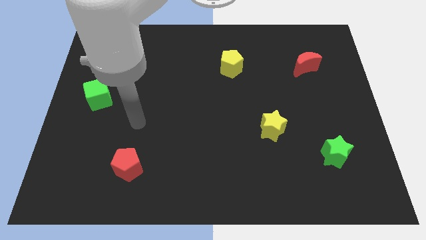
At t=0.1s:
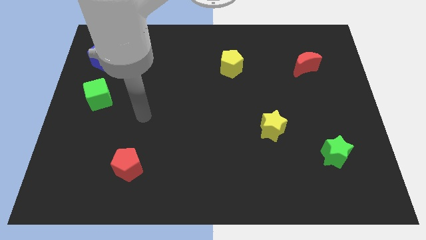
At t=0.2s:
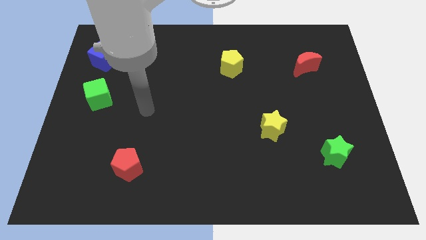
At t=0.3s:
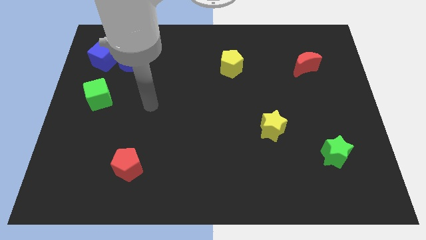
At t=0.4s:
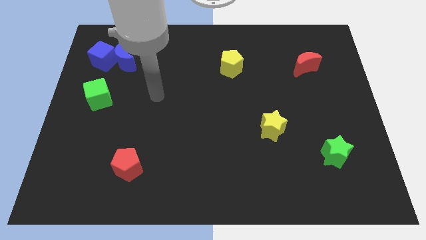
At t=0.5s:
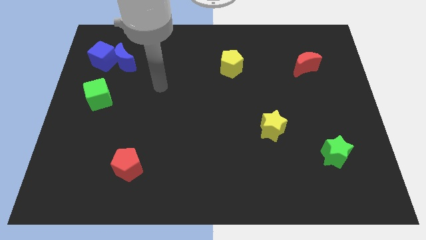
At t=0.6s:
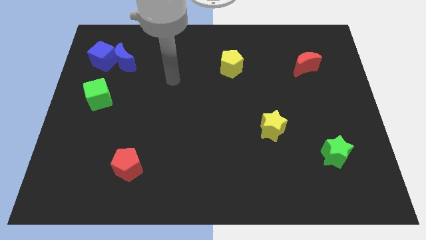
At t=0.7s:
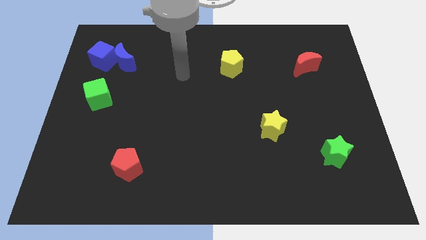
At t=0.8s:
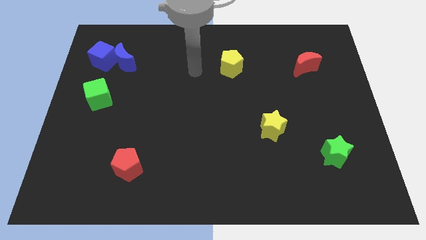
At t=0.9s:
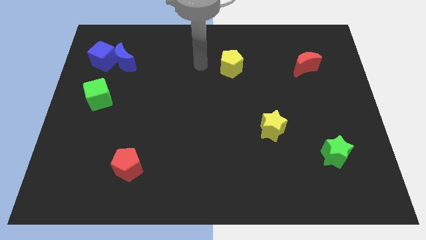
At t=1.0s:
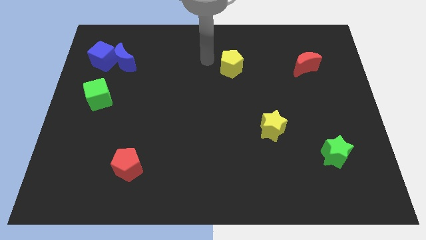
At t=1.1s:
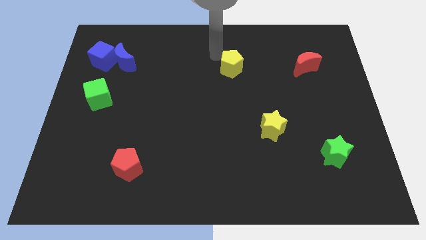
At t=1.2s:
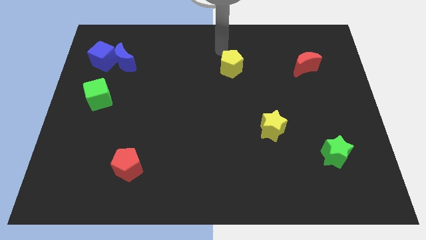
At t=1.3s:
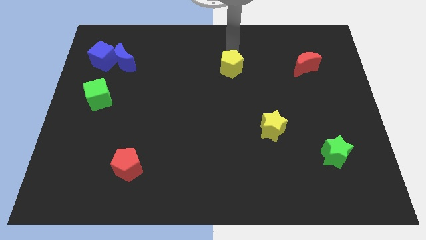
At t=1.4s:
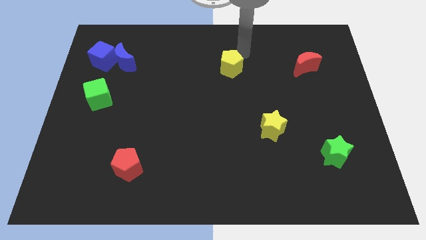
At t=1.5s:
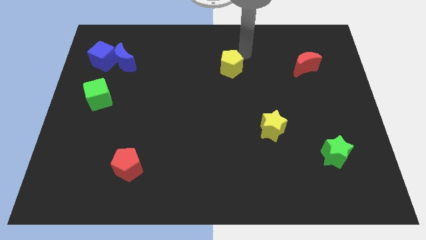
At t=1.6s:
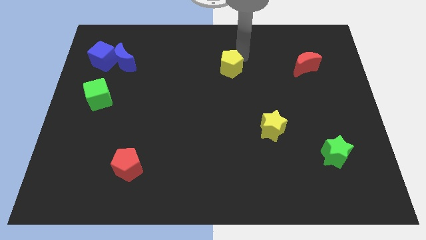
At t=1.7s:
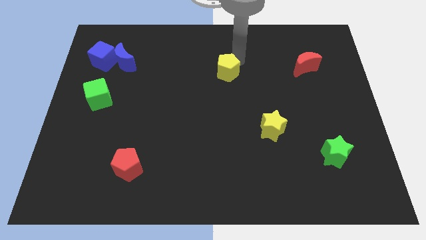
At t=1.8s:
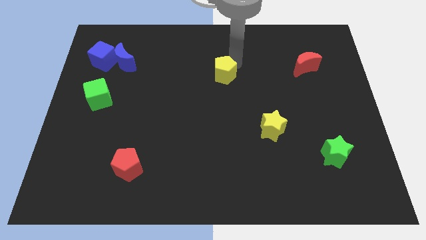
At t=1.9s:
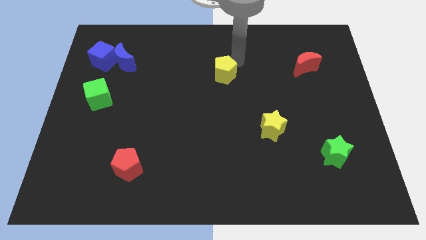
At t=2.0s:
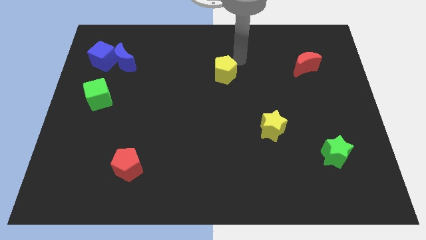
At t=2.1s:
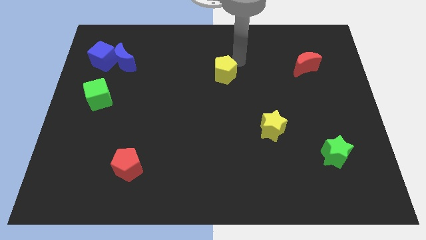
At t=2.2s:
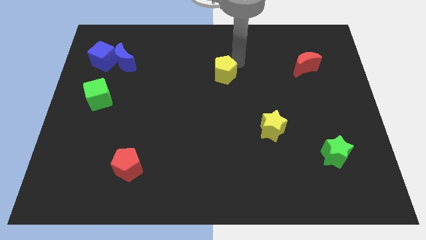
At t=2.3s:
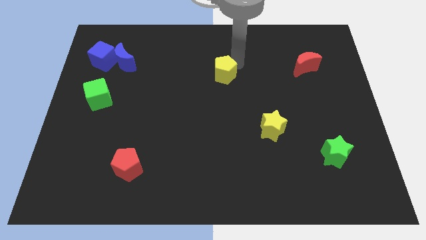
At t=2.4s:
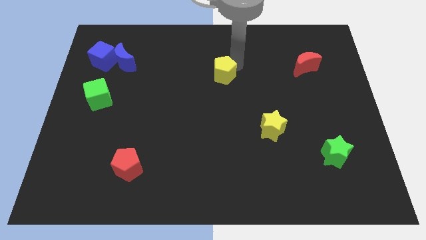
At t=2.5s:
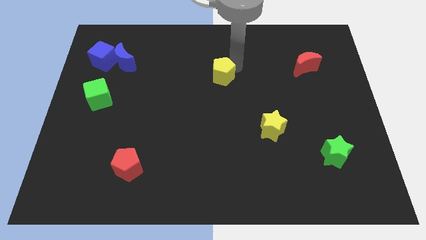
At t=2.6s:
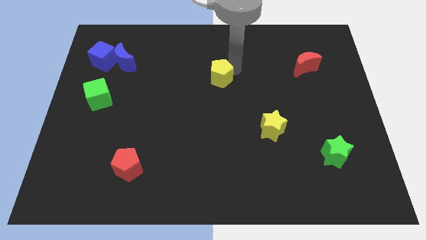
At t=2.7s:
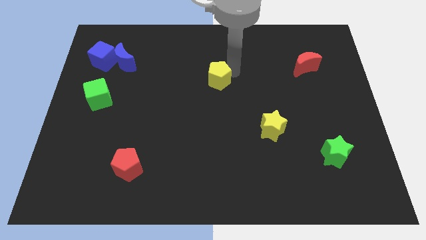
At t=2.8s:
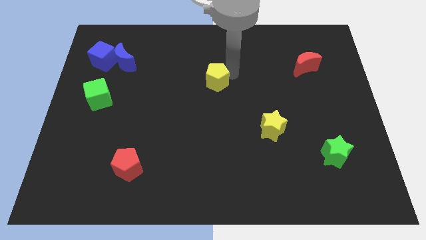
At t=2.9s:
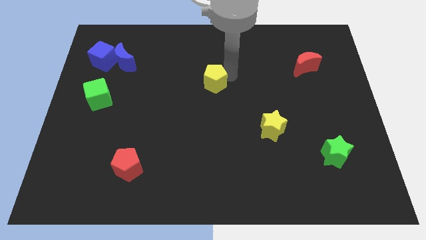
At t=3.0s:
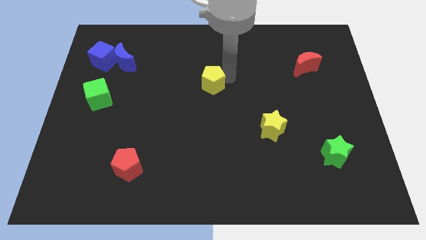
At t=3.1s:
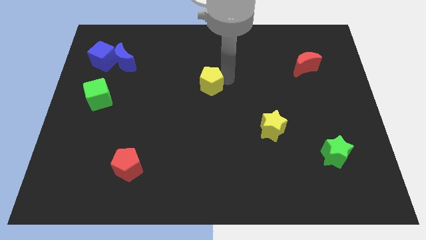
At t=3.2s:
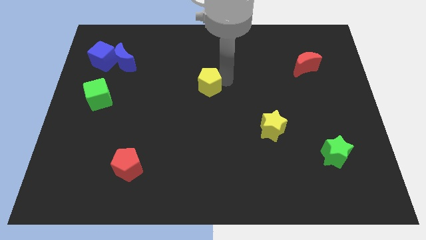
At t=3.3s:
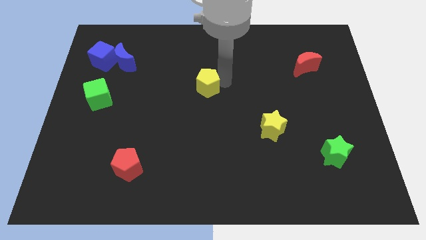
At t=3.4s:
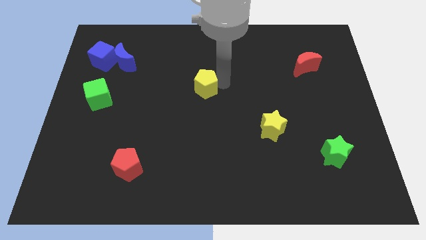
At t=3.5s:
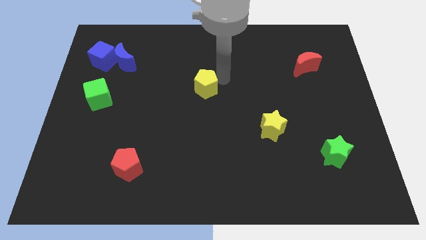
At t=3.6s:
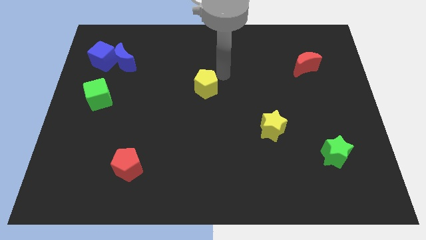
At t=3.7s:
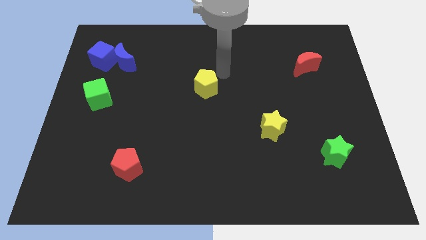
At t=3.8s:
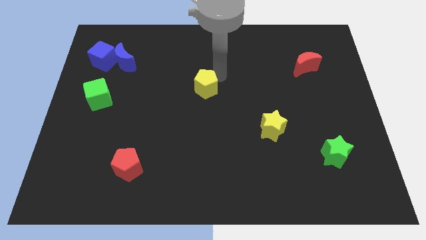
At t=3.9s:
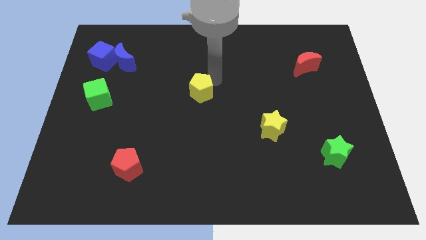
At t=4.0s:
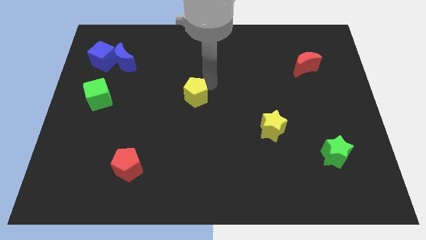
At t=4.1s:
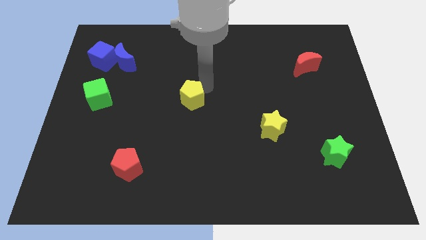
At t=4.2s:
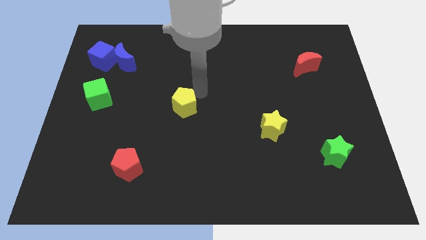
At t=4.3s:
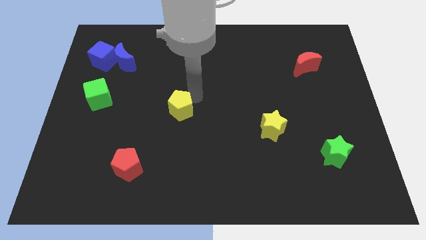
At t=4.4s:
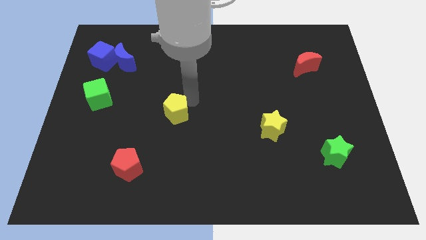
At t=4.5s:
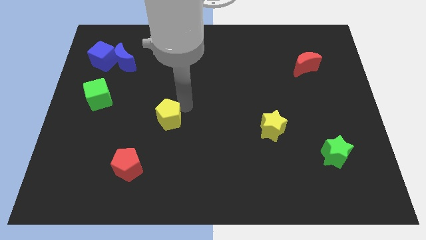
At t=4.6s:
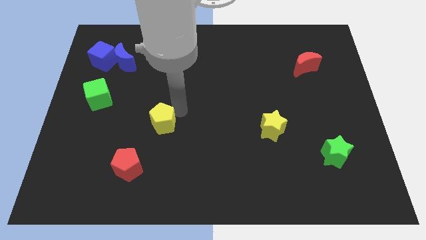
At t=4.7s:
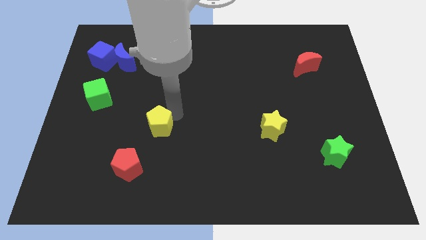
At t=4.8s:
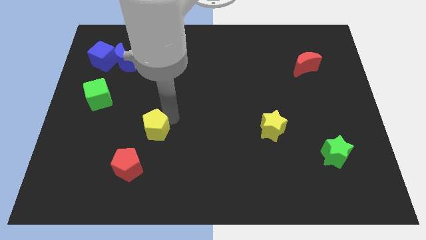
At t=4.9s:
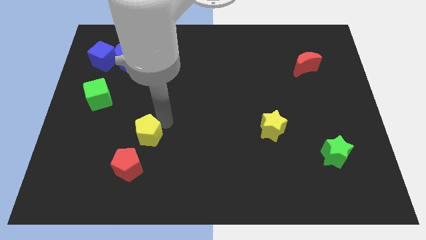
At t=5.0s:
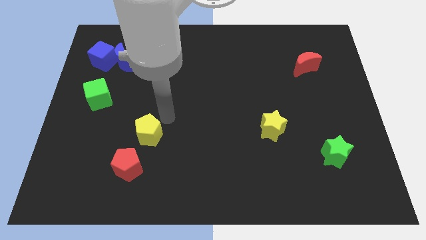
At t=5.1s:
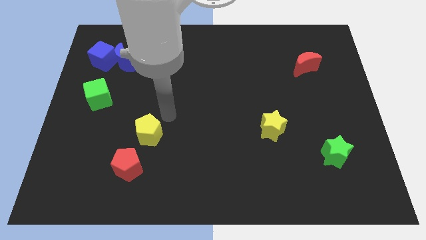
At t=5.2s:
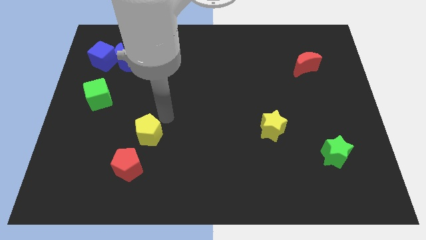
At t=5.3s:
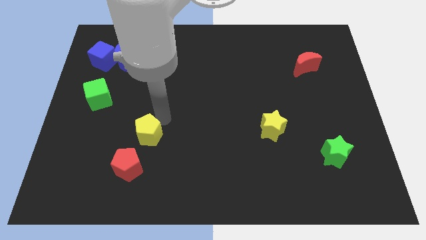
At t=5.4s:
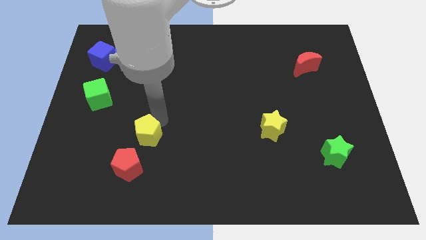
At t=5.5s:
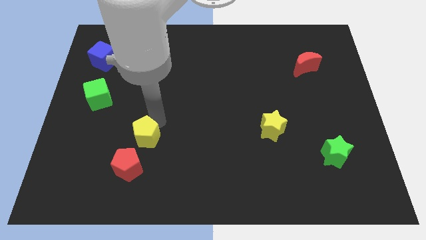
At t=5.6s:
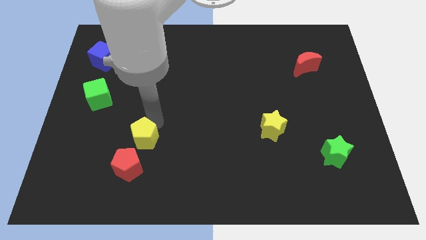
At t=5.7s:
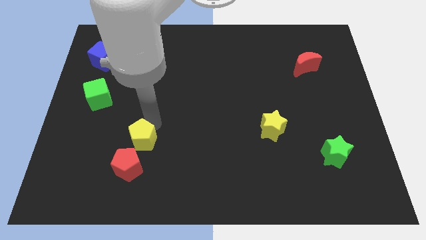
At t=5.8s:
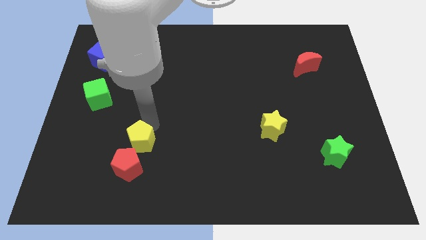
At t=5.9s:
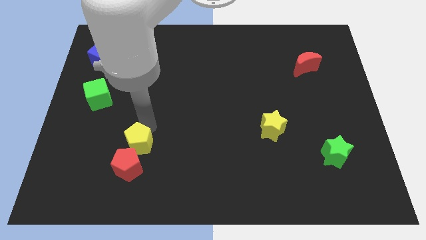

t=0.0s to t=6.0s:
move the yellow pentagon next to the red pentagon
